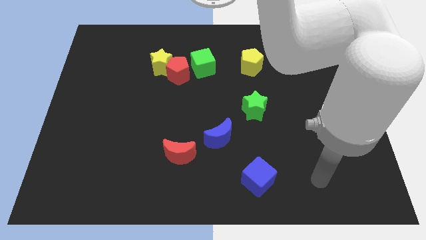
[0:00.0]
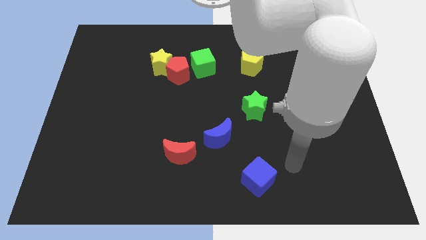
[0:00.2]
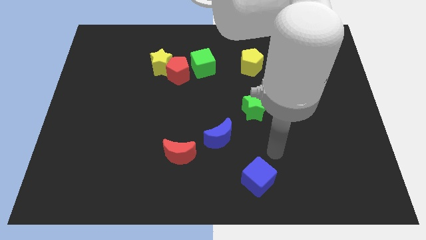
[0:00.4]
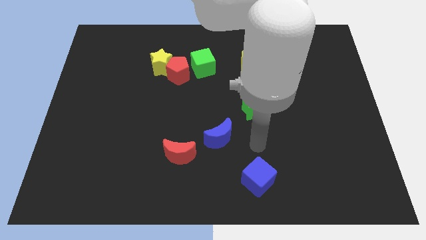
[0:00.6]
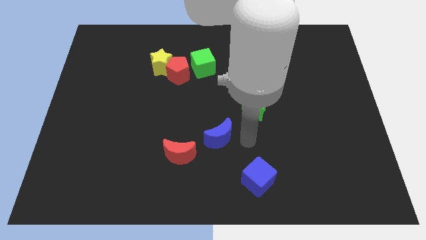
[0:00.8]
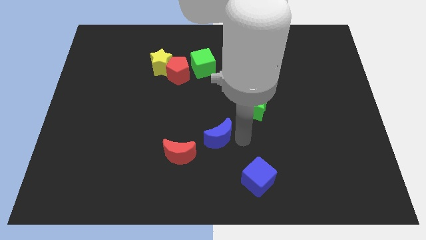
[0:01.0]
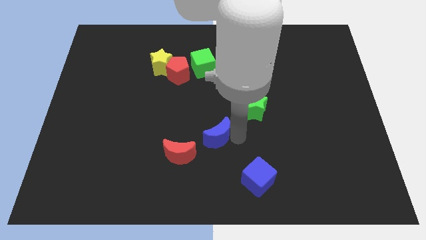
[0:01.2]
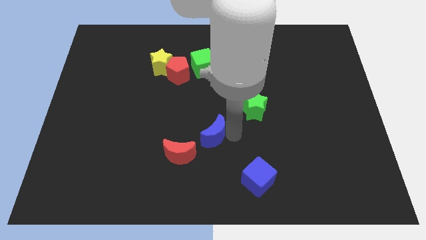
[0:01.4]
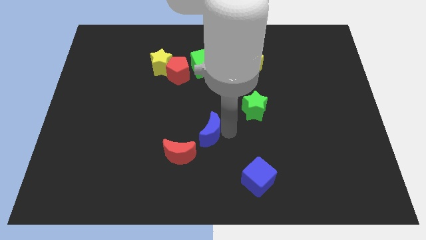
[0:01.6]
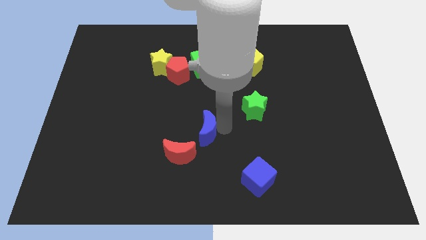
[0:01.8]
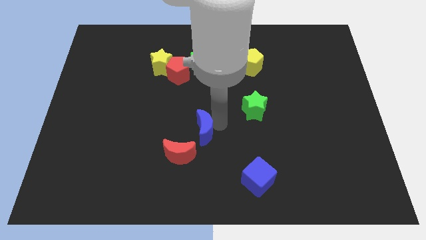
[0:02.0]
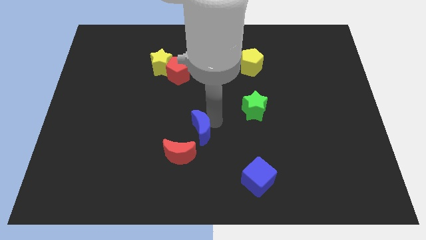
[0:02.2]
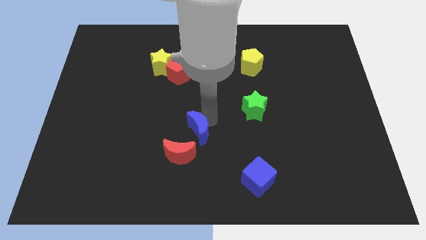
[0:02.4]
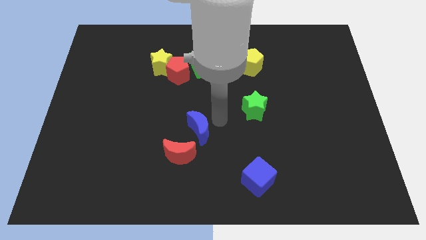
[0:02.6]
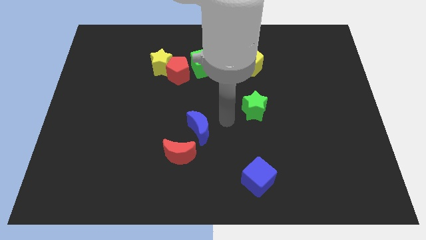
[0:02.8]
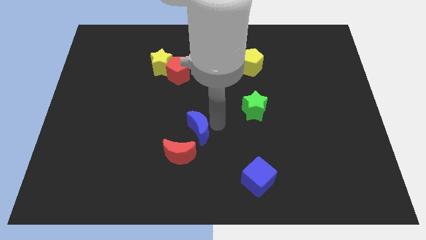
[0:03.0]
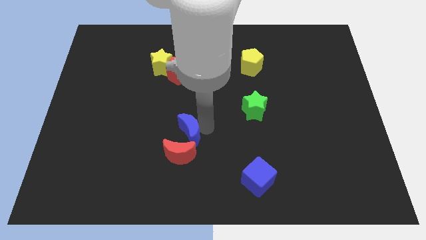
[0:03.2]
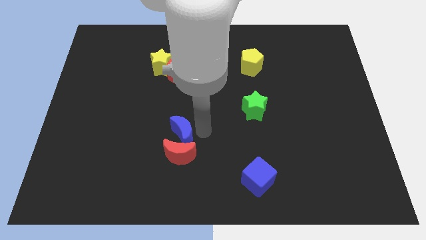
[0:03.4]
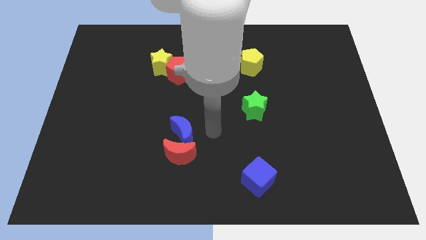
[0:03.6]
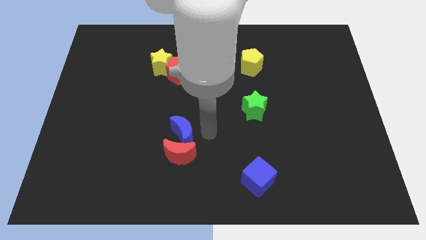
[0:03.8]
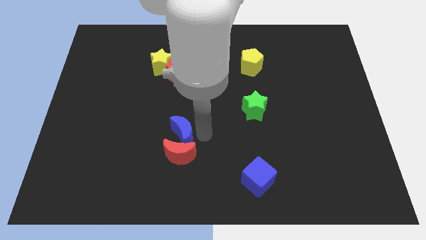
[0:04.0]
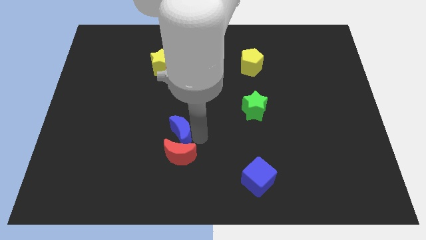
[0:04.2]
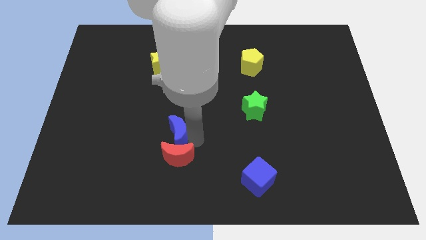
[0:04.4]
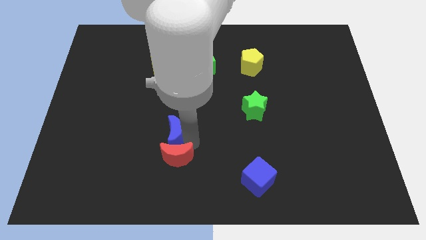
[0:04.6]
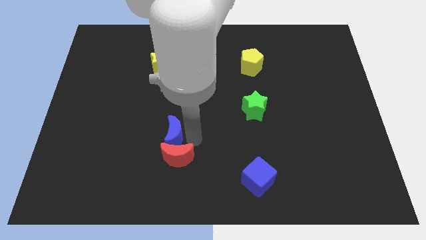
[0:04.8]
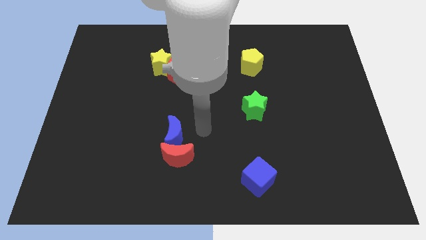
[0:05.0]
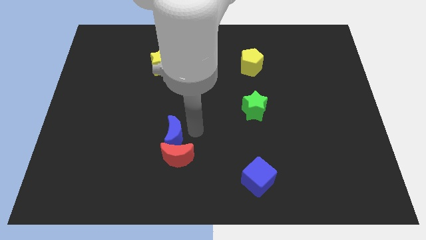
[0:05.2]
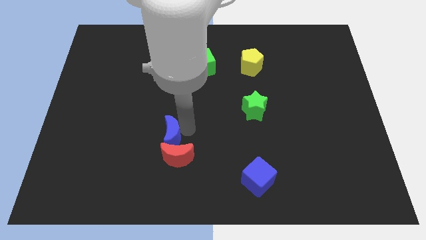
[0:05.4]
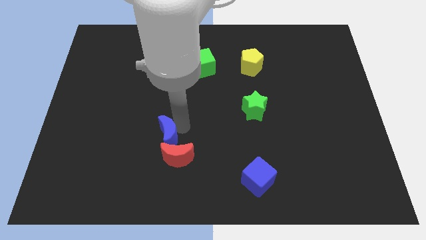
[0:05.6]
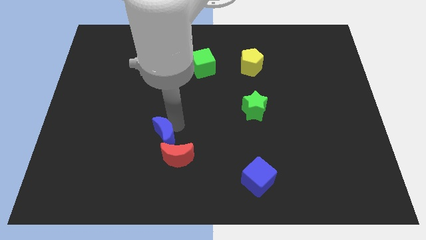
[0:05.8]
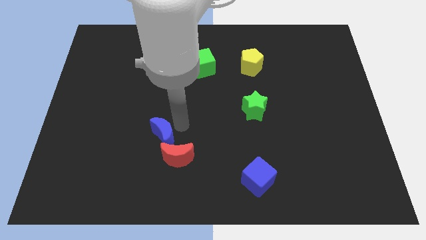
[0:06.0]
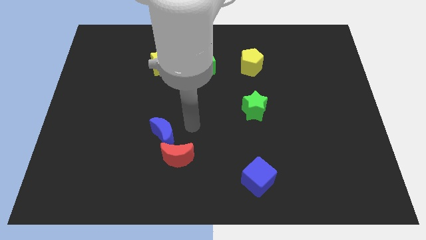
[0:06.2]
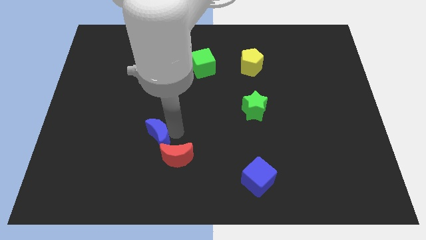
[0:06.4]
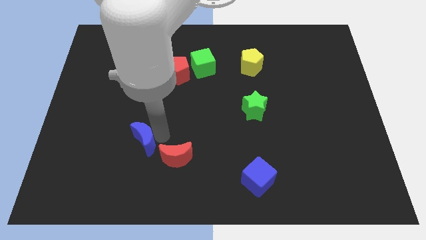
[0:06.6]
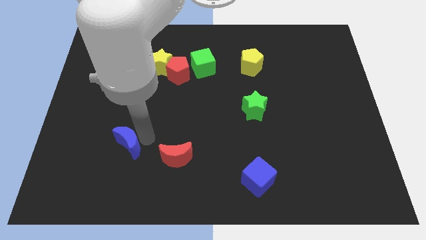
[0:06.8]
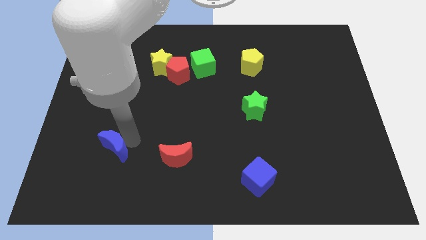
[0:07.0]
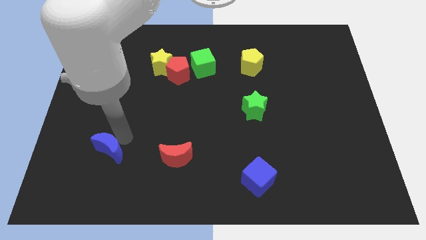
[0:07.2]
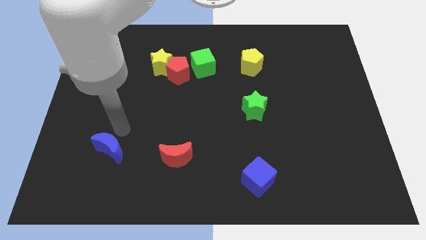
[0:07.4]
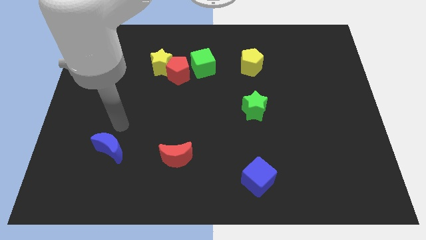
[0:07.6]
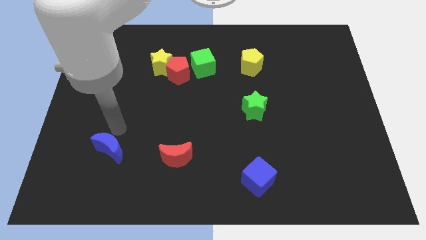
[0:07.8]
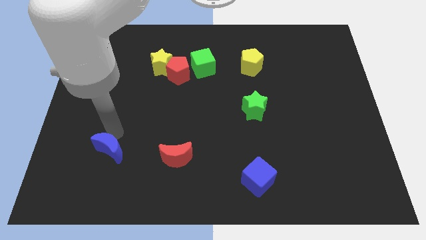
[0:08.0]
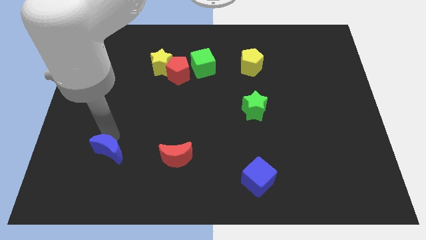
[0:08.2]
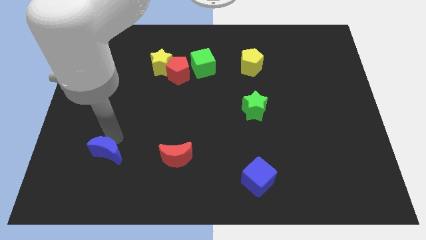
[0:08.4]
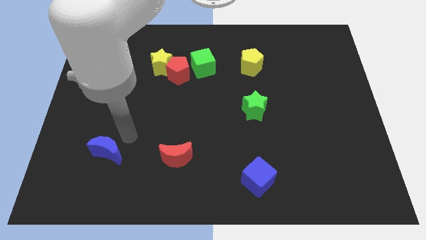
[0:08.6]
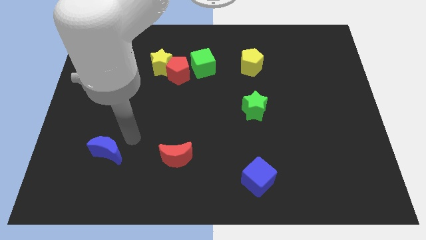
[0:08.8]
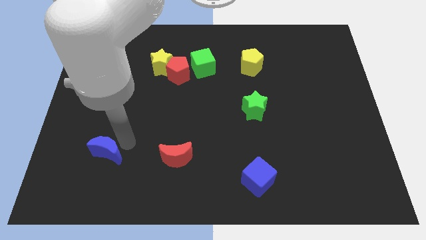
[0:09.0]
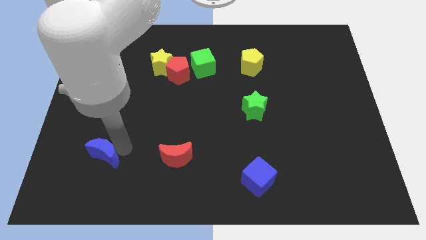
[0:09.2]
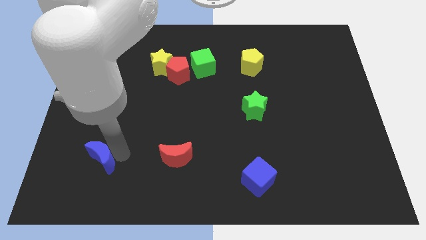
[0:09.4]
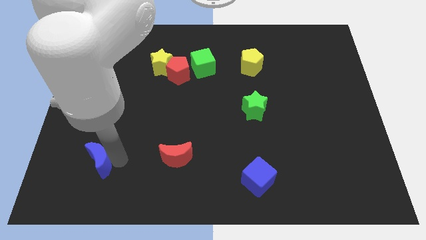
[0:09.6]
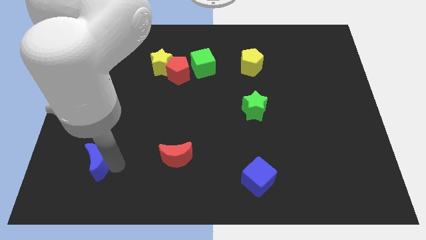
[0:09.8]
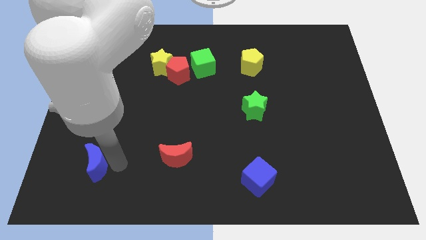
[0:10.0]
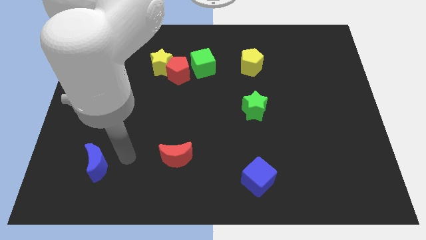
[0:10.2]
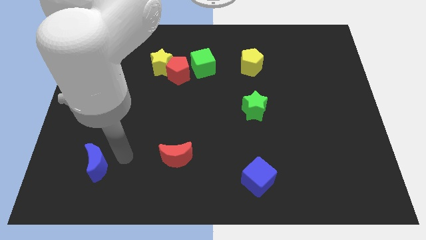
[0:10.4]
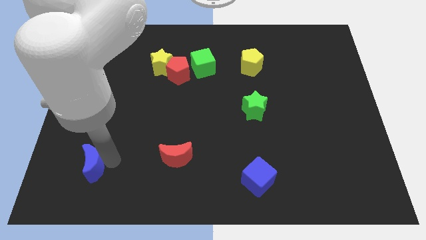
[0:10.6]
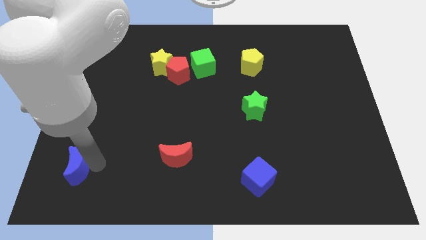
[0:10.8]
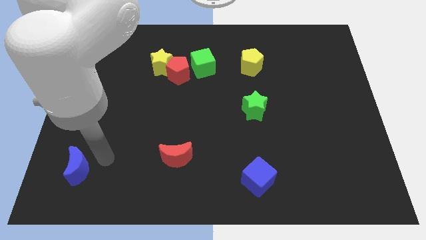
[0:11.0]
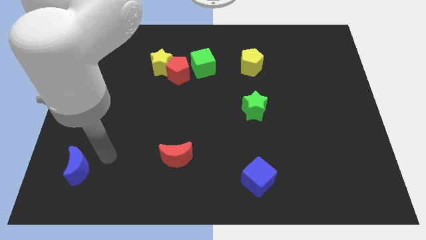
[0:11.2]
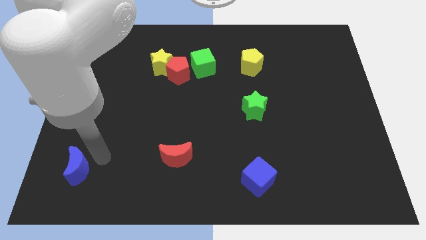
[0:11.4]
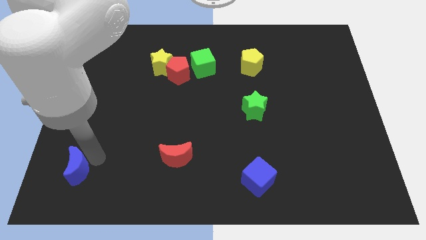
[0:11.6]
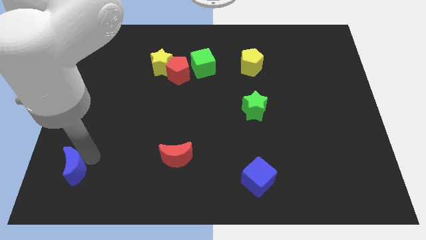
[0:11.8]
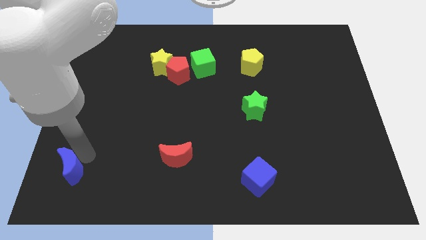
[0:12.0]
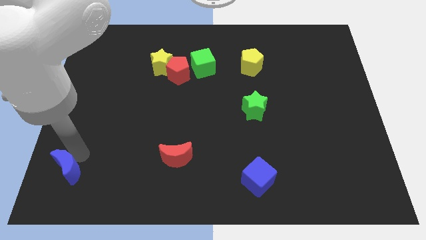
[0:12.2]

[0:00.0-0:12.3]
push the blue moon to the lower left corner

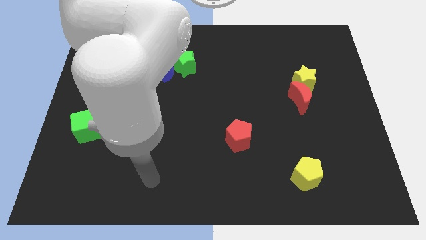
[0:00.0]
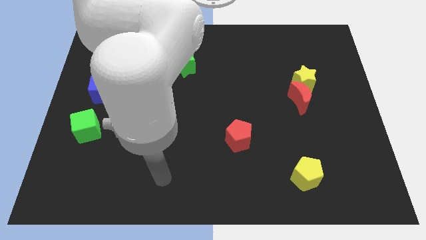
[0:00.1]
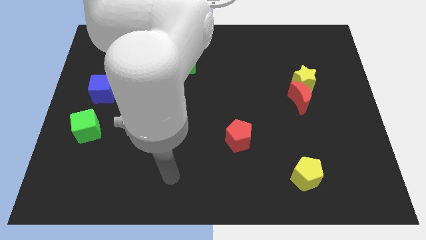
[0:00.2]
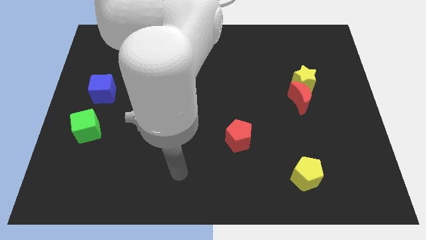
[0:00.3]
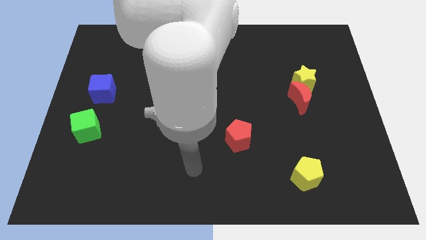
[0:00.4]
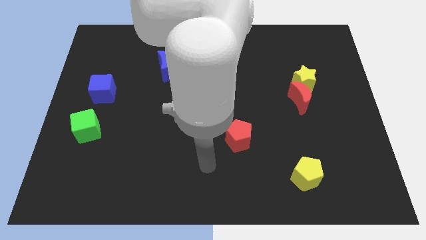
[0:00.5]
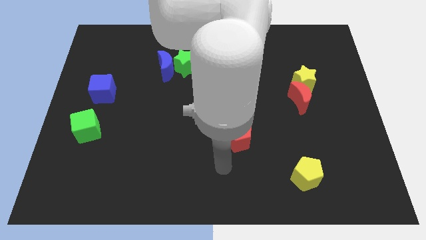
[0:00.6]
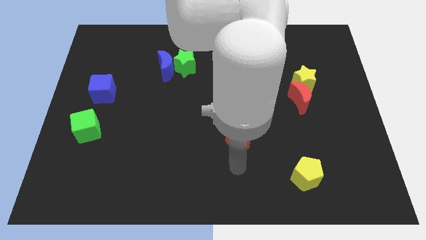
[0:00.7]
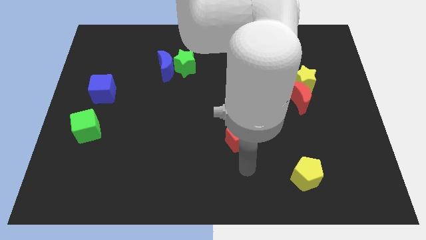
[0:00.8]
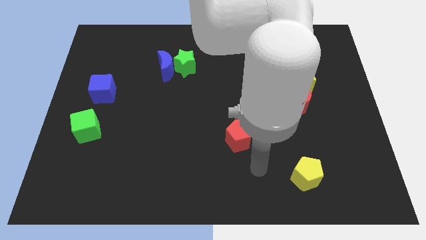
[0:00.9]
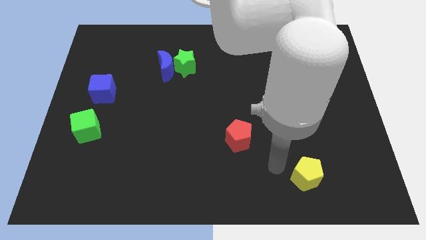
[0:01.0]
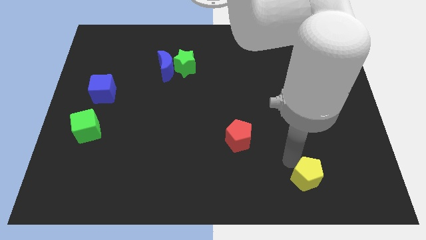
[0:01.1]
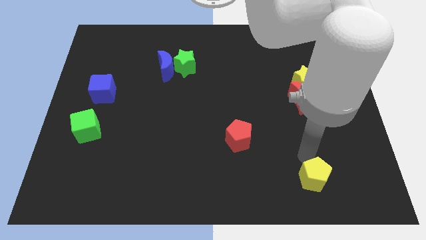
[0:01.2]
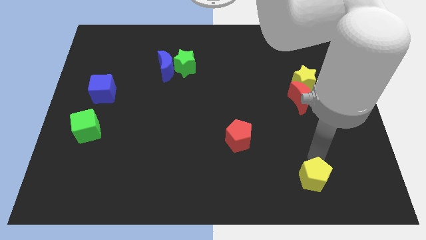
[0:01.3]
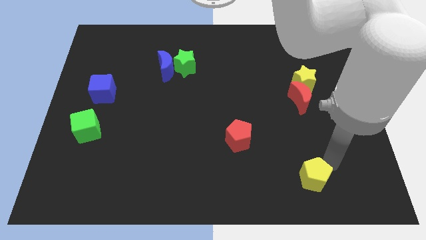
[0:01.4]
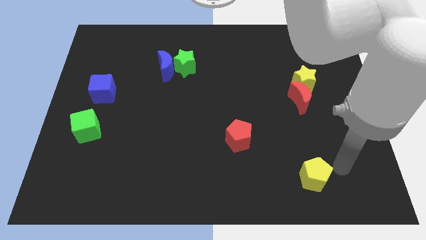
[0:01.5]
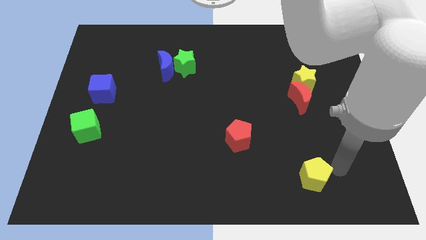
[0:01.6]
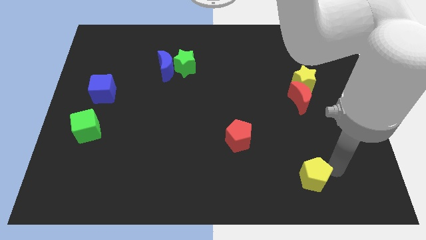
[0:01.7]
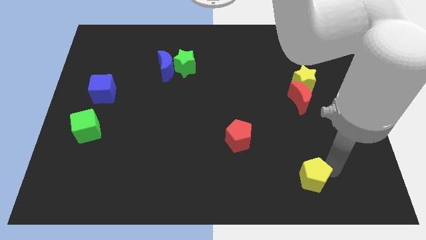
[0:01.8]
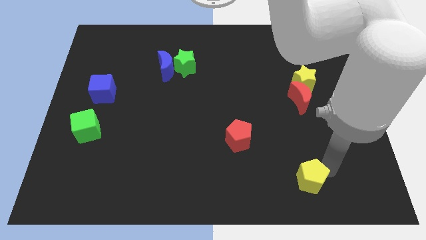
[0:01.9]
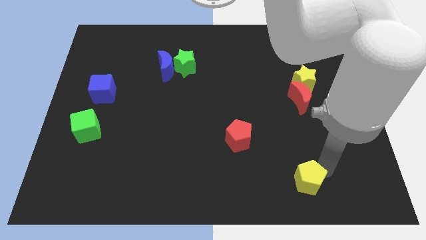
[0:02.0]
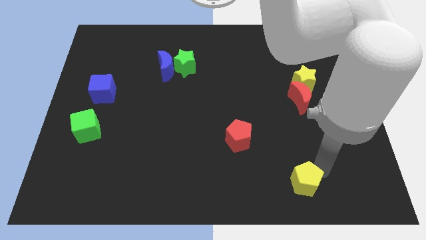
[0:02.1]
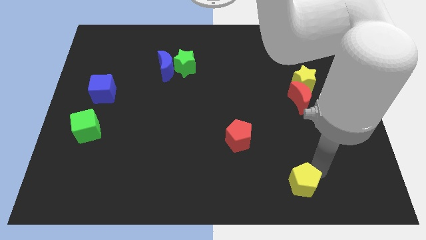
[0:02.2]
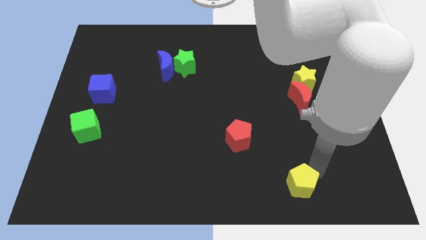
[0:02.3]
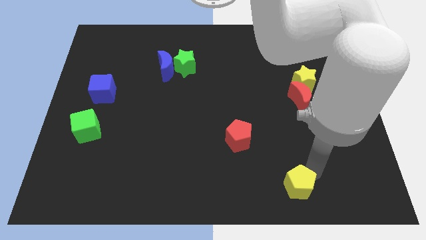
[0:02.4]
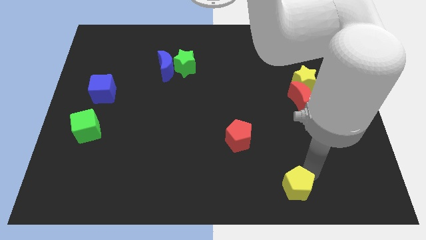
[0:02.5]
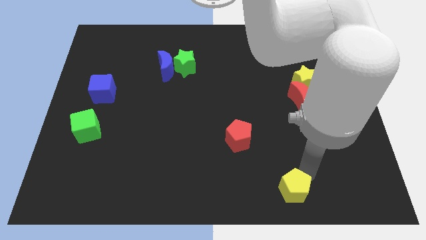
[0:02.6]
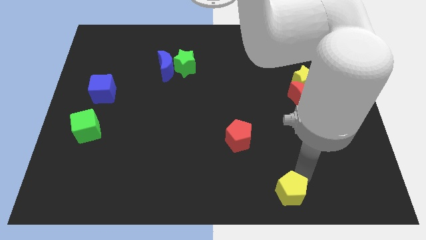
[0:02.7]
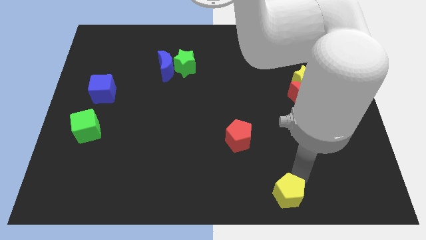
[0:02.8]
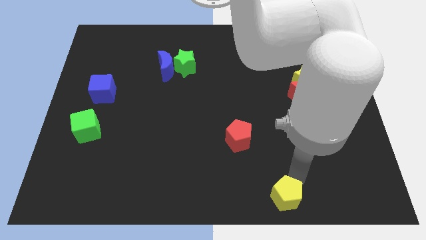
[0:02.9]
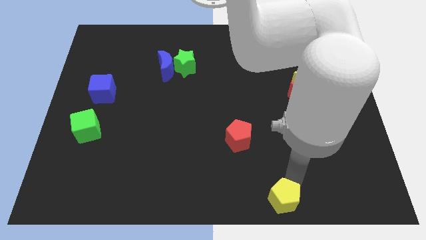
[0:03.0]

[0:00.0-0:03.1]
move the yellow pentagon to the bottom
